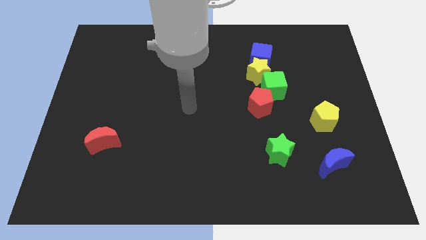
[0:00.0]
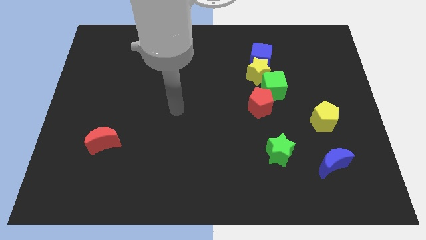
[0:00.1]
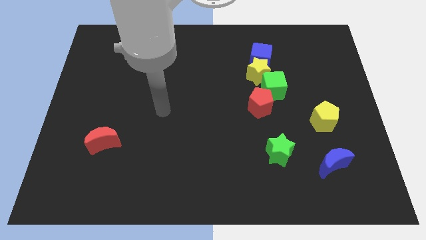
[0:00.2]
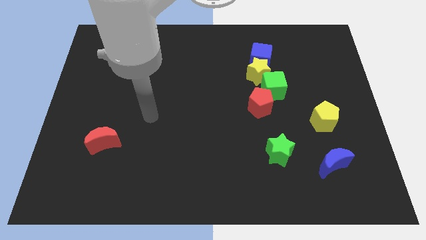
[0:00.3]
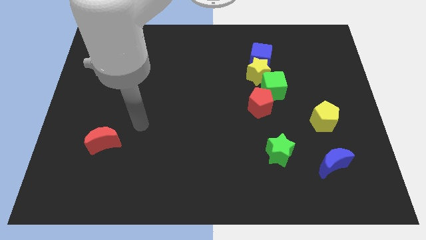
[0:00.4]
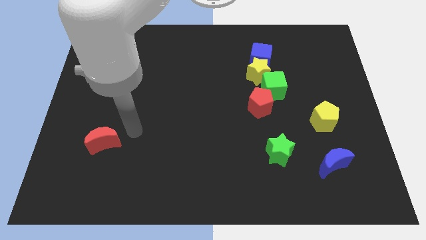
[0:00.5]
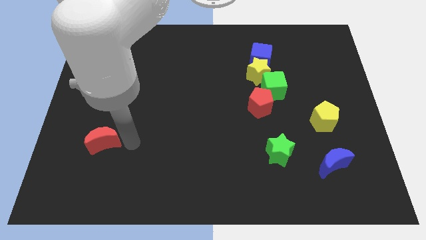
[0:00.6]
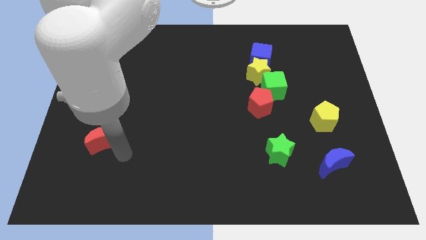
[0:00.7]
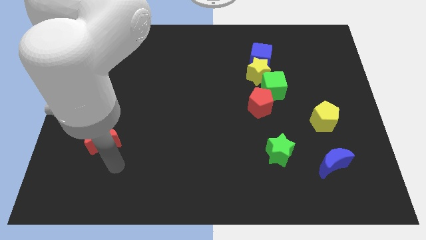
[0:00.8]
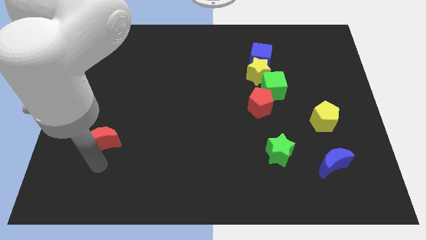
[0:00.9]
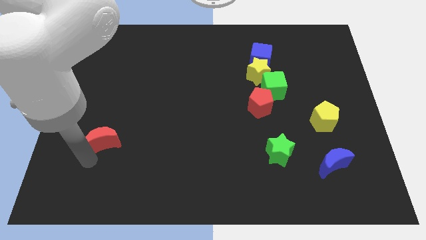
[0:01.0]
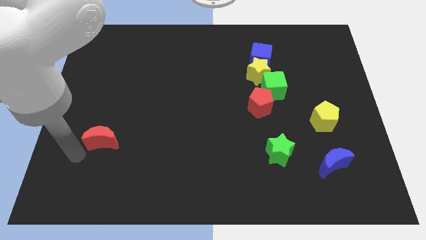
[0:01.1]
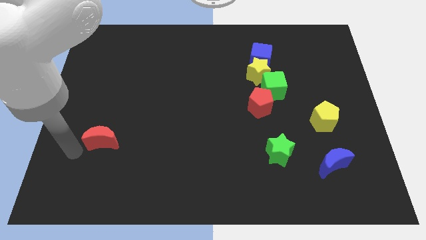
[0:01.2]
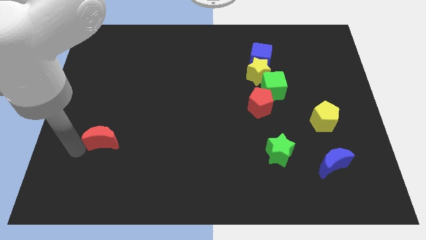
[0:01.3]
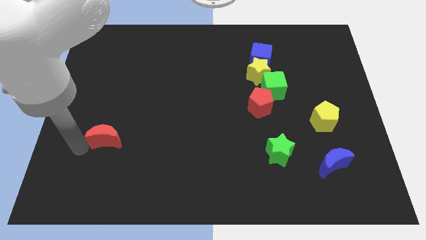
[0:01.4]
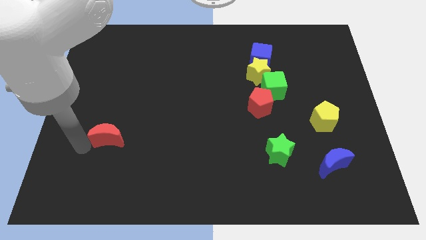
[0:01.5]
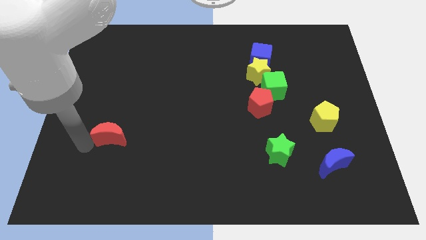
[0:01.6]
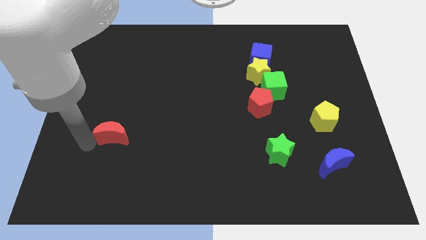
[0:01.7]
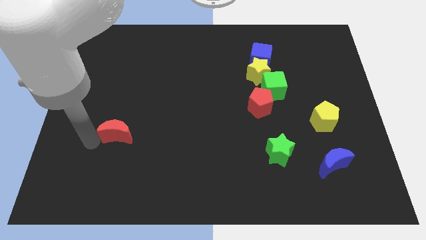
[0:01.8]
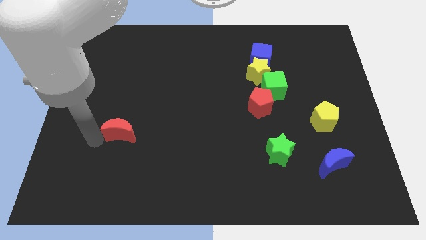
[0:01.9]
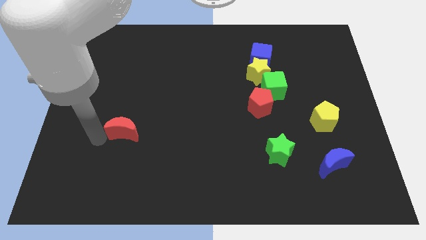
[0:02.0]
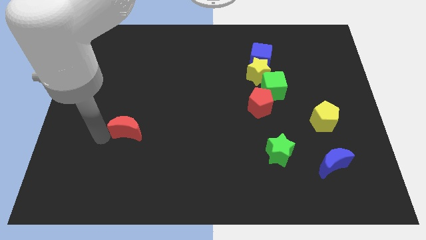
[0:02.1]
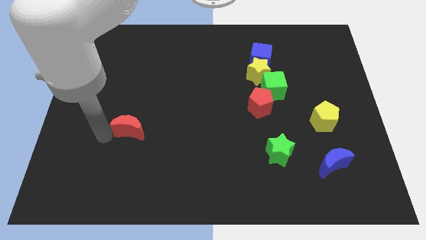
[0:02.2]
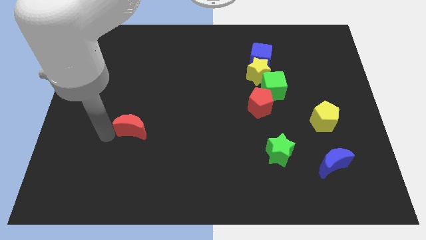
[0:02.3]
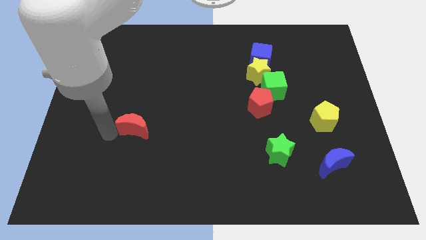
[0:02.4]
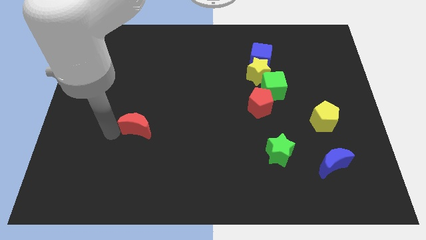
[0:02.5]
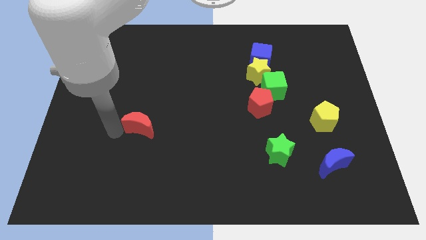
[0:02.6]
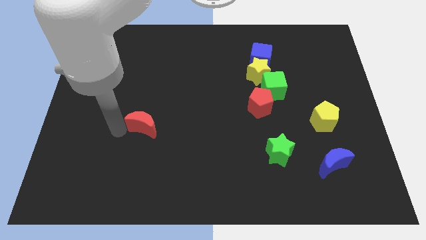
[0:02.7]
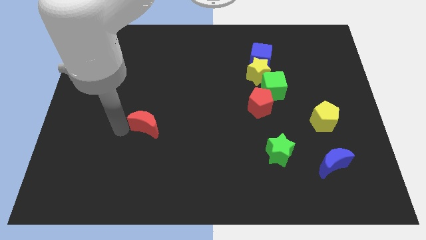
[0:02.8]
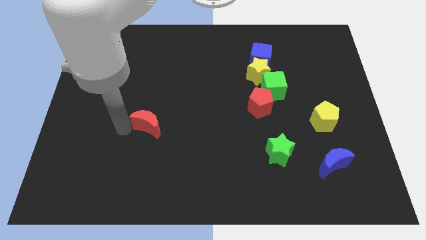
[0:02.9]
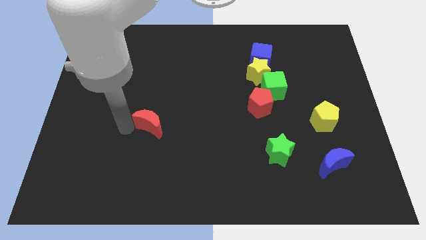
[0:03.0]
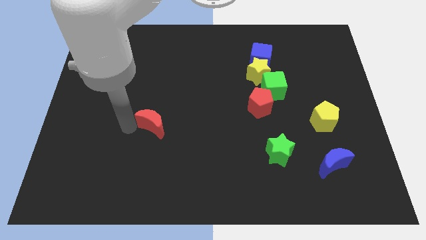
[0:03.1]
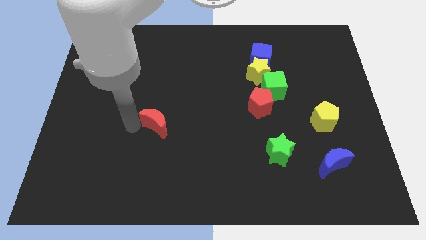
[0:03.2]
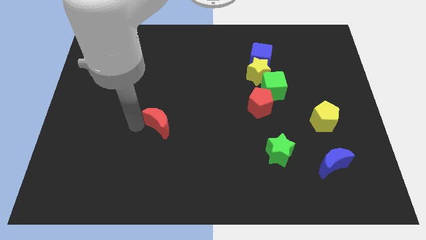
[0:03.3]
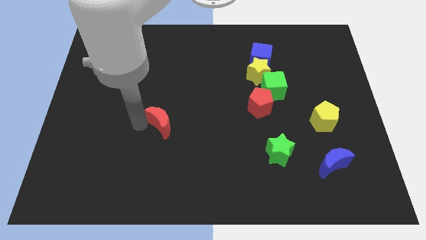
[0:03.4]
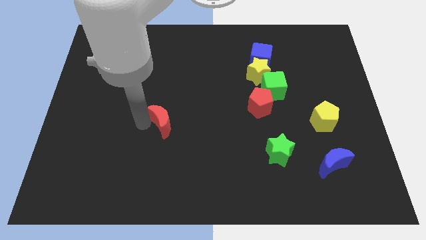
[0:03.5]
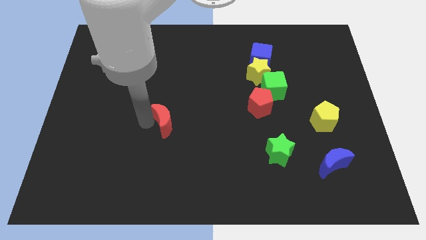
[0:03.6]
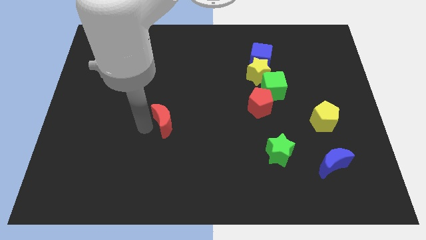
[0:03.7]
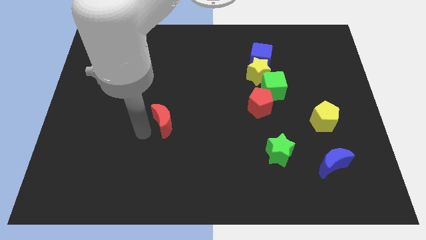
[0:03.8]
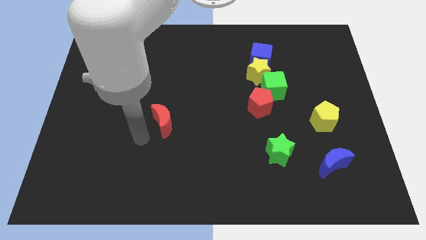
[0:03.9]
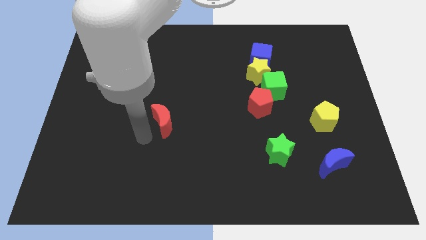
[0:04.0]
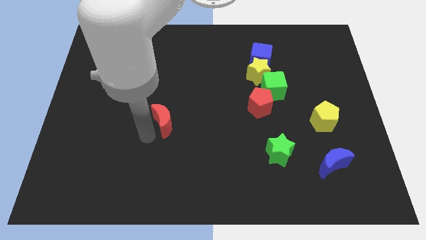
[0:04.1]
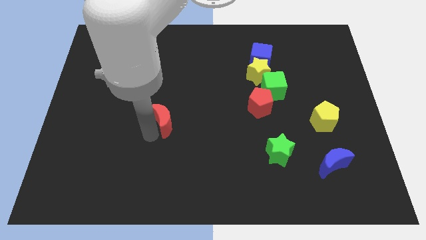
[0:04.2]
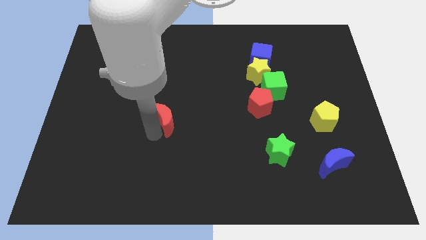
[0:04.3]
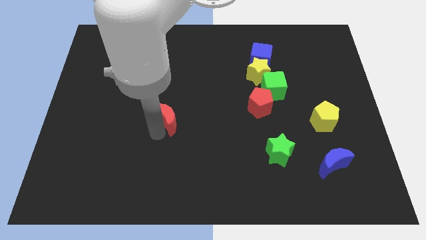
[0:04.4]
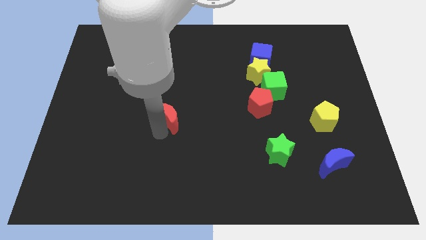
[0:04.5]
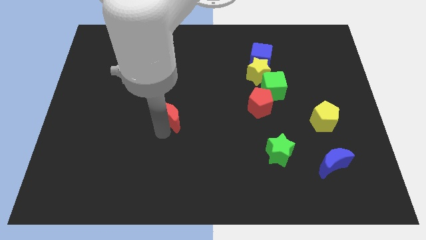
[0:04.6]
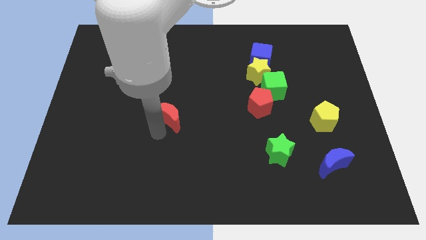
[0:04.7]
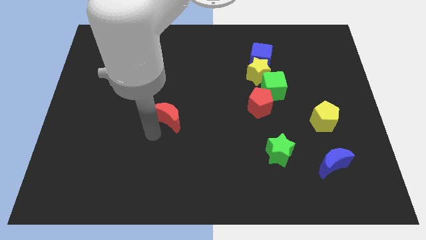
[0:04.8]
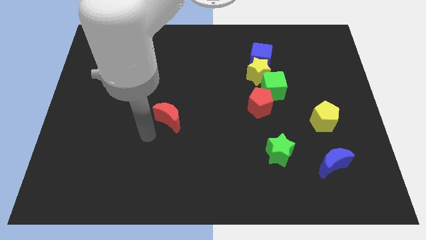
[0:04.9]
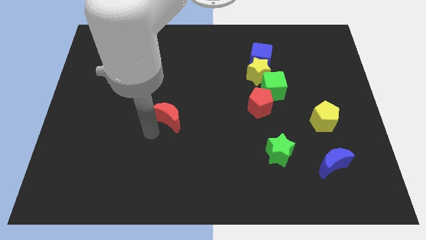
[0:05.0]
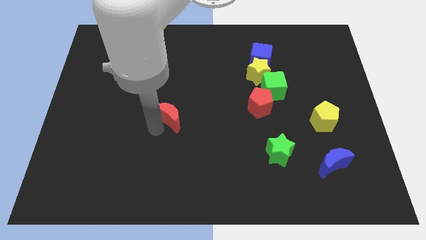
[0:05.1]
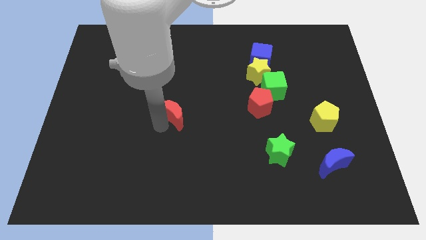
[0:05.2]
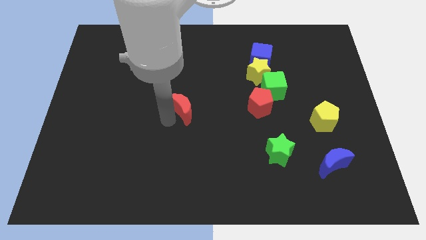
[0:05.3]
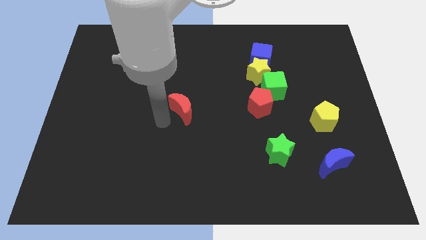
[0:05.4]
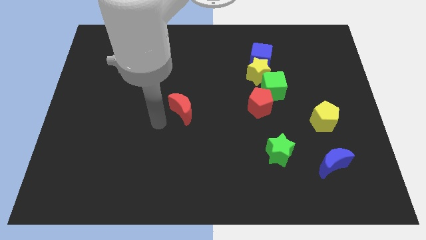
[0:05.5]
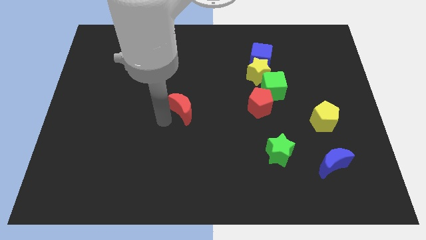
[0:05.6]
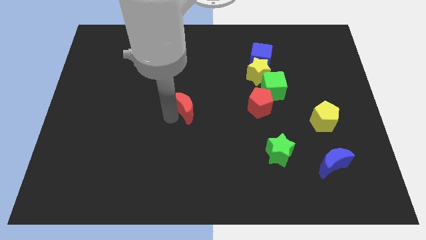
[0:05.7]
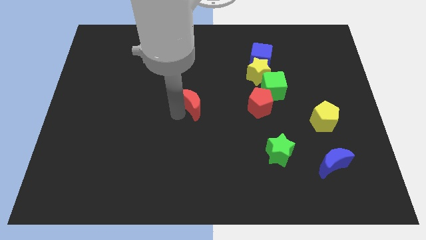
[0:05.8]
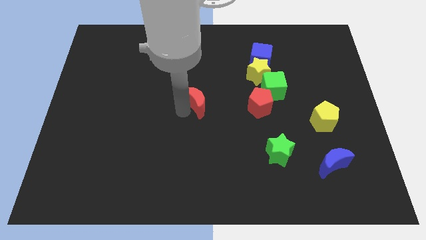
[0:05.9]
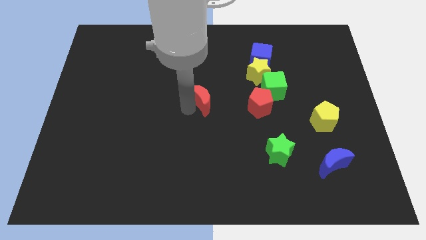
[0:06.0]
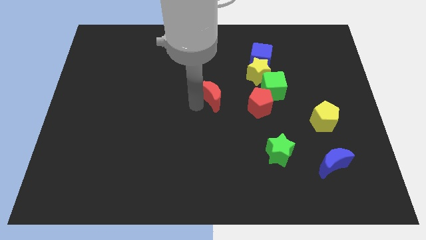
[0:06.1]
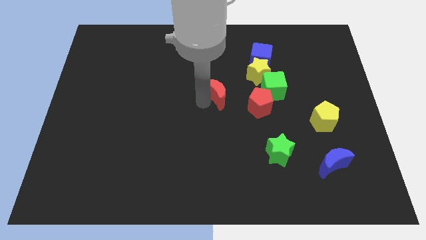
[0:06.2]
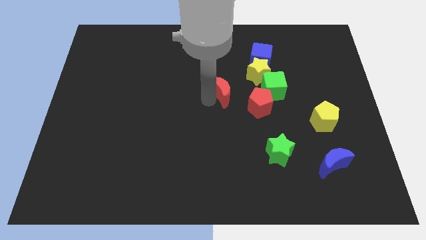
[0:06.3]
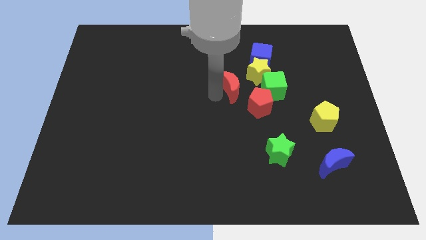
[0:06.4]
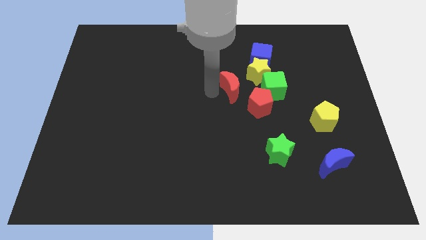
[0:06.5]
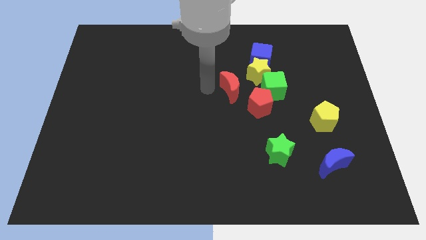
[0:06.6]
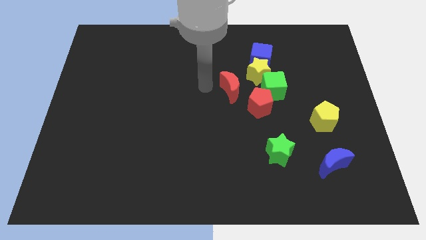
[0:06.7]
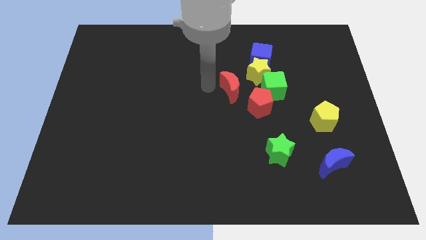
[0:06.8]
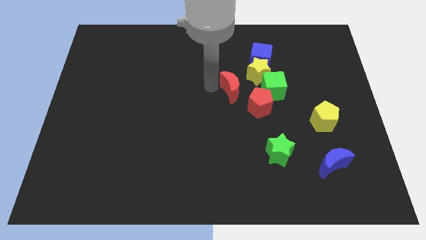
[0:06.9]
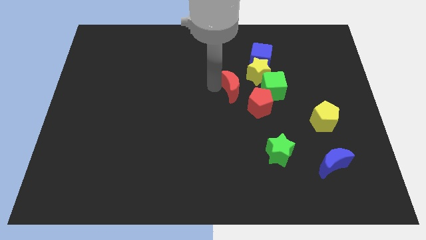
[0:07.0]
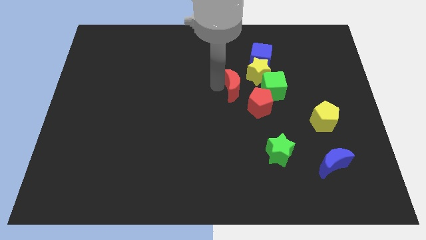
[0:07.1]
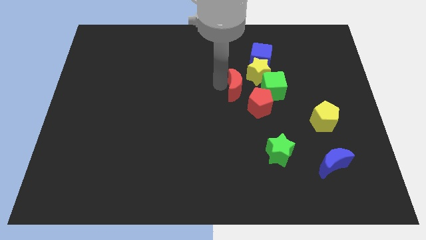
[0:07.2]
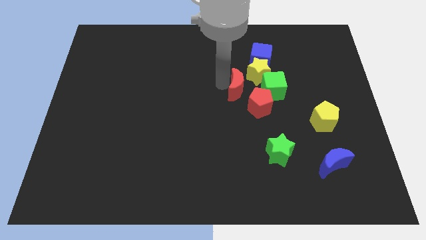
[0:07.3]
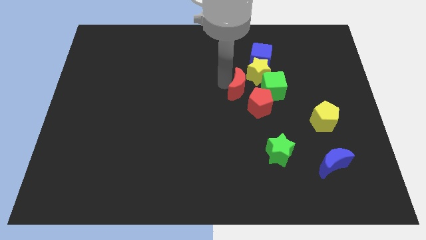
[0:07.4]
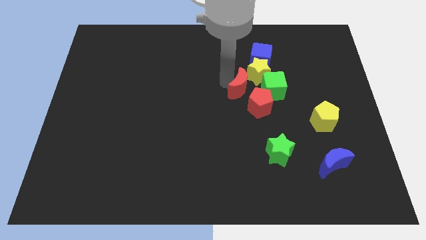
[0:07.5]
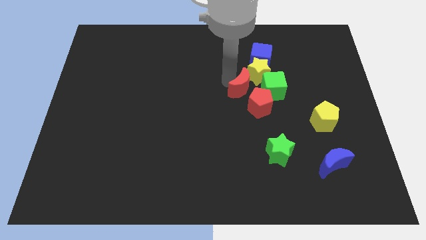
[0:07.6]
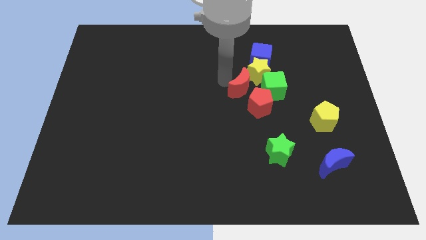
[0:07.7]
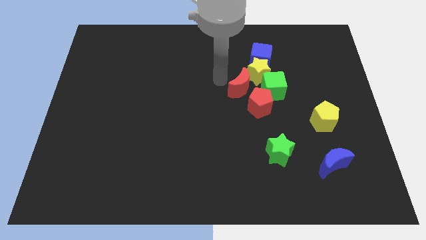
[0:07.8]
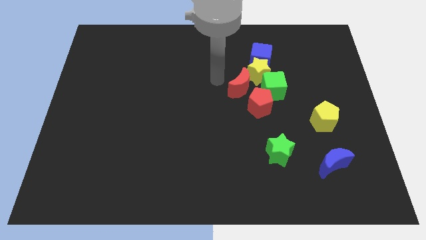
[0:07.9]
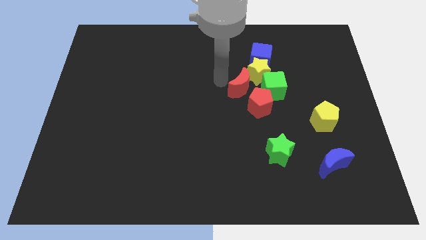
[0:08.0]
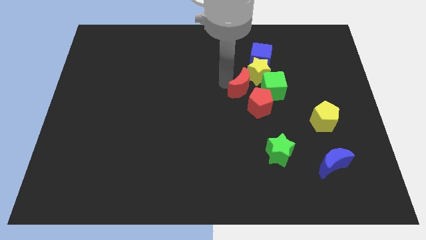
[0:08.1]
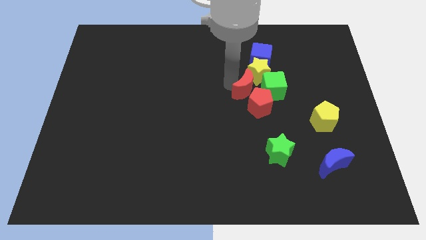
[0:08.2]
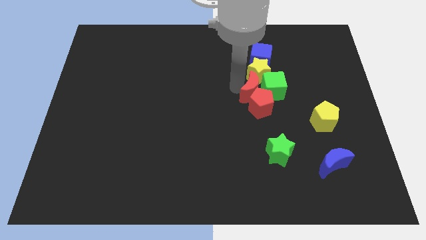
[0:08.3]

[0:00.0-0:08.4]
move the red moon next to the green cube
